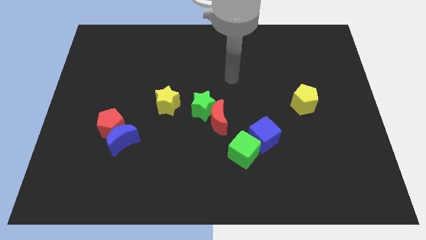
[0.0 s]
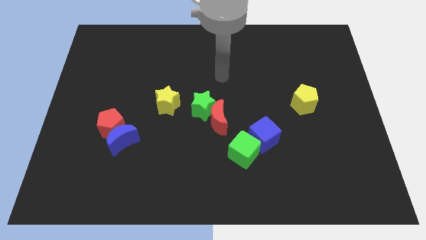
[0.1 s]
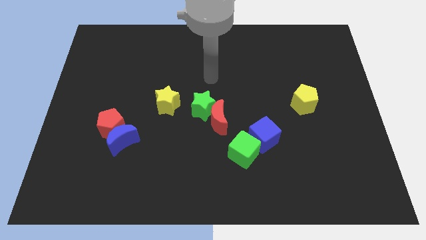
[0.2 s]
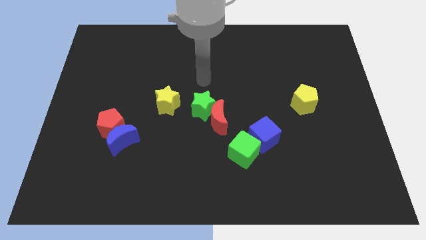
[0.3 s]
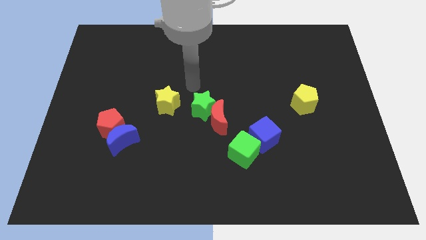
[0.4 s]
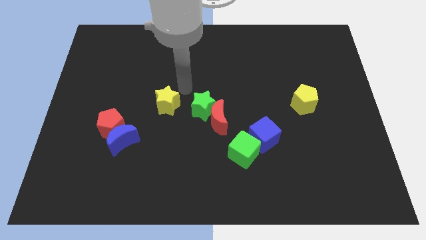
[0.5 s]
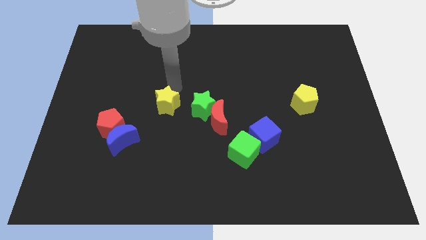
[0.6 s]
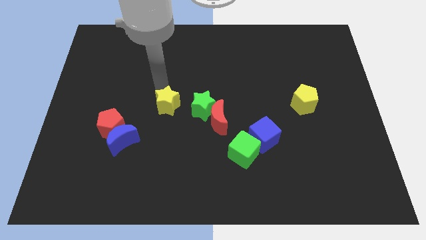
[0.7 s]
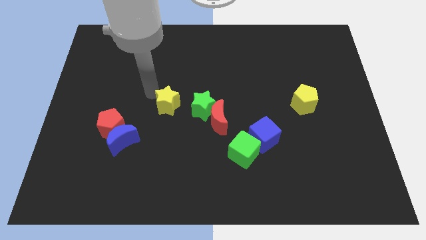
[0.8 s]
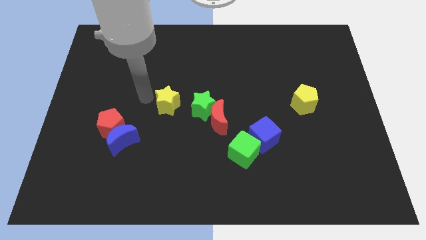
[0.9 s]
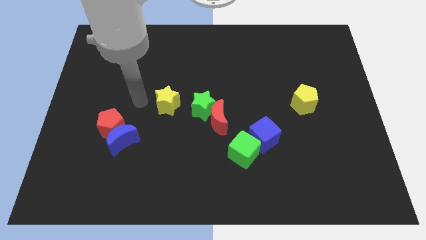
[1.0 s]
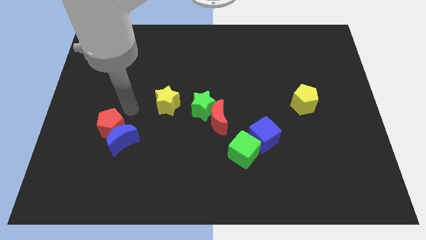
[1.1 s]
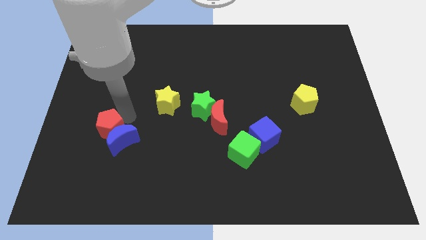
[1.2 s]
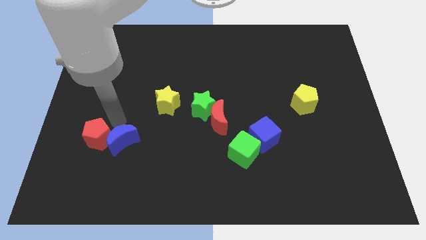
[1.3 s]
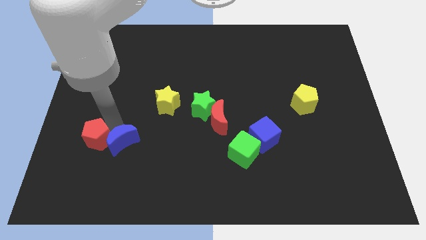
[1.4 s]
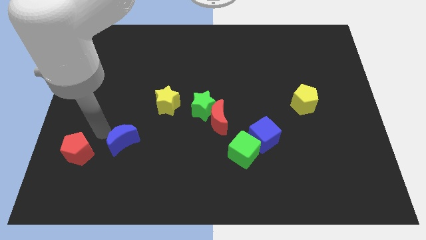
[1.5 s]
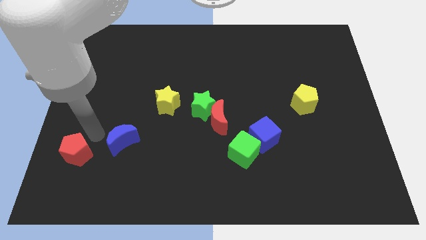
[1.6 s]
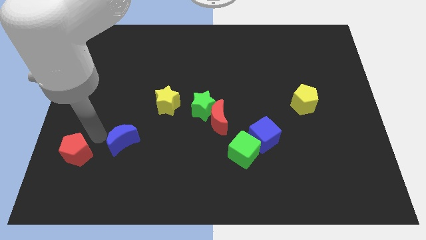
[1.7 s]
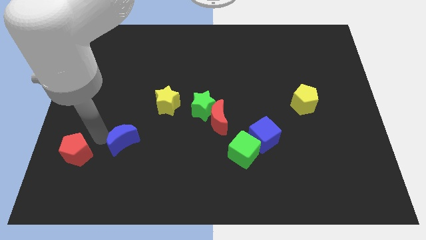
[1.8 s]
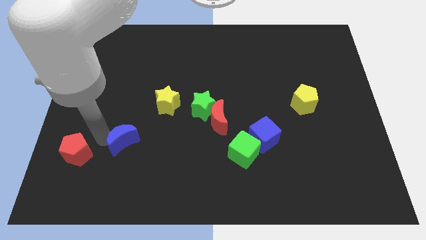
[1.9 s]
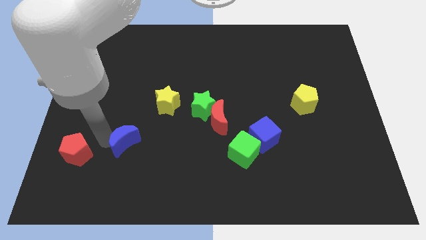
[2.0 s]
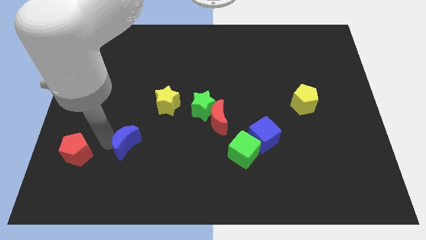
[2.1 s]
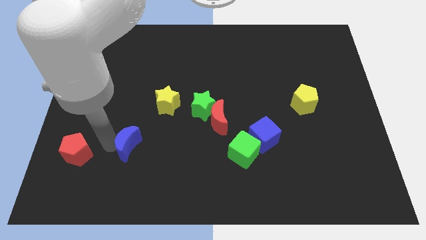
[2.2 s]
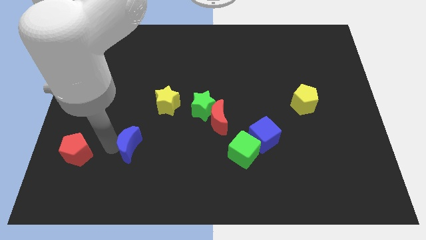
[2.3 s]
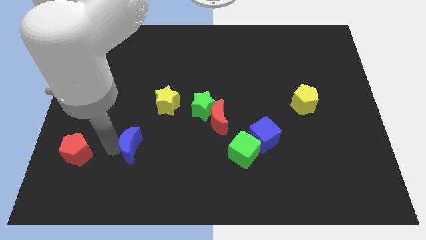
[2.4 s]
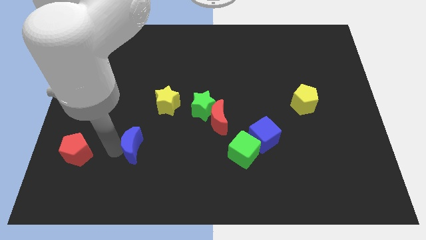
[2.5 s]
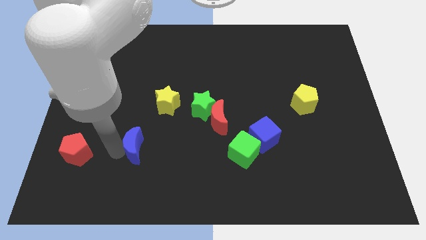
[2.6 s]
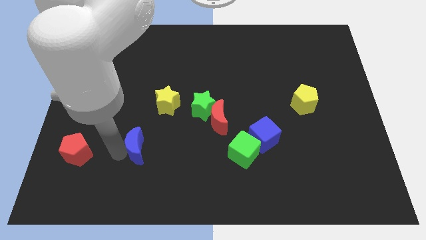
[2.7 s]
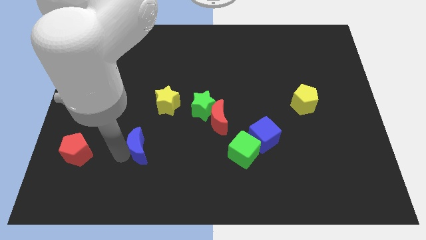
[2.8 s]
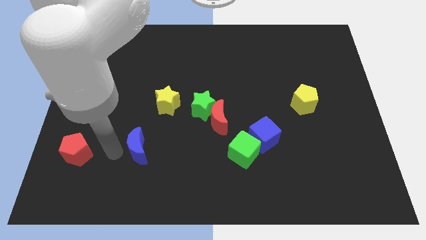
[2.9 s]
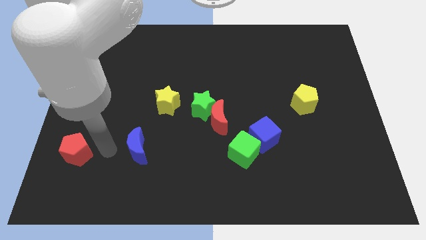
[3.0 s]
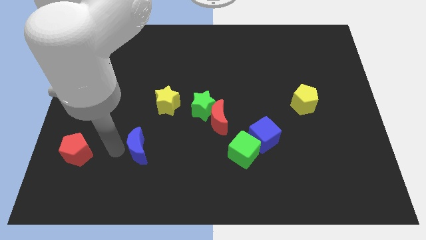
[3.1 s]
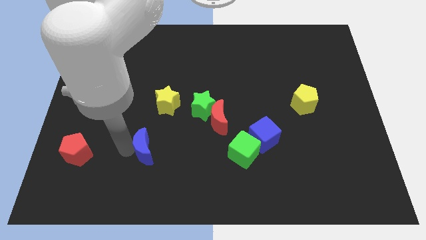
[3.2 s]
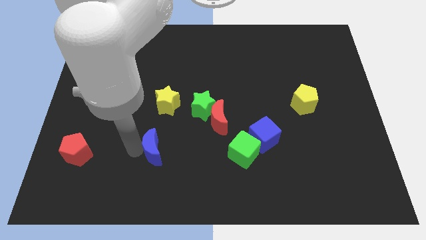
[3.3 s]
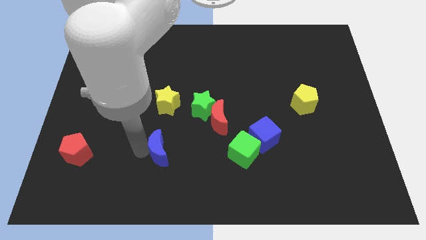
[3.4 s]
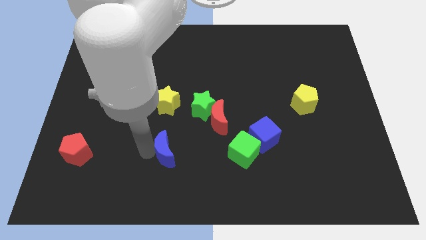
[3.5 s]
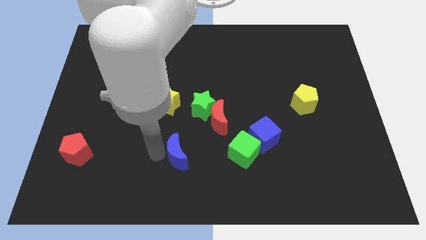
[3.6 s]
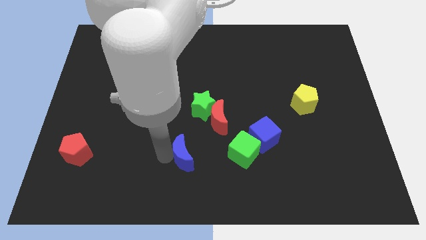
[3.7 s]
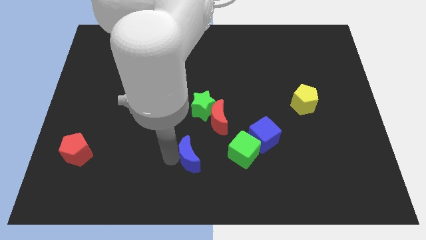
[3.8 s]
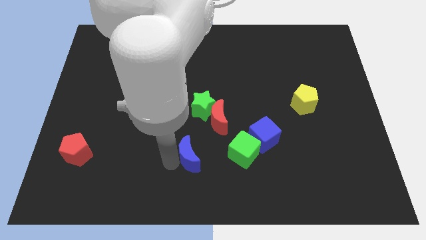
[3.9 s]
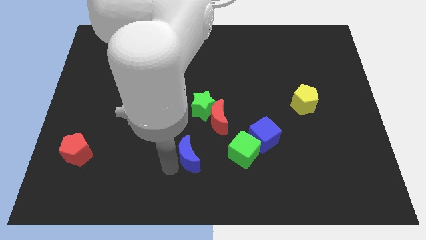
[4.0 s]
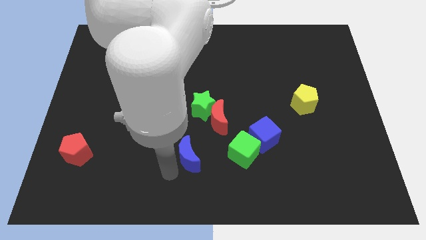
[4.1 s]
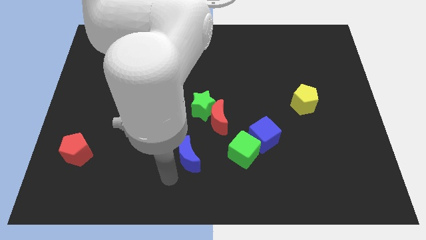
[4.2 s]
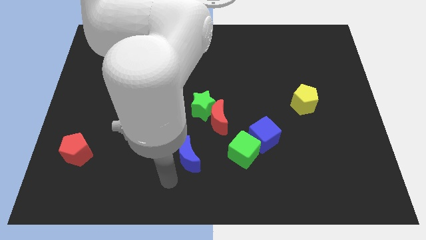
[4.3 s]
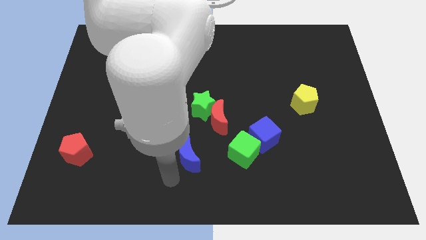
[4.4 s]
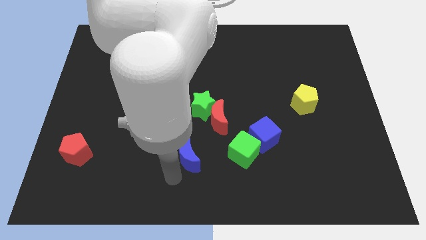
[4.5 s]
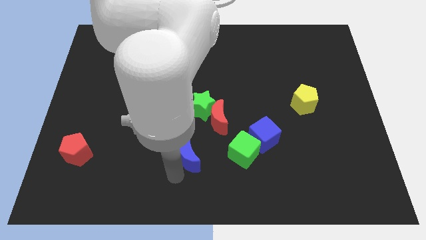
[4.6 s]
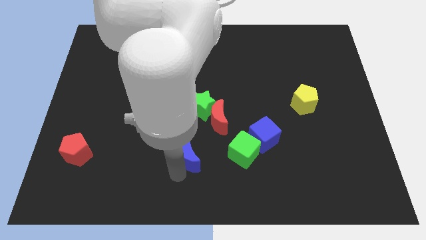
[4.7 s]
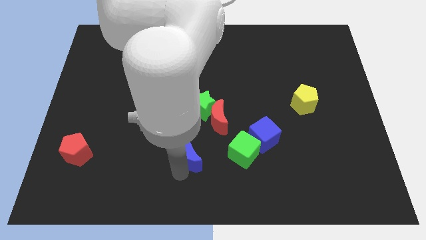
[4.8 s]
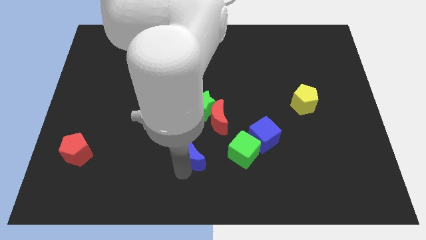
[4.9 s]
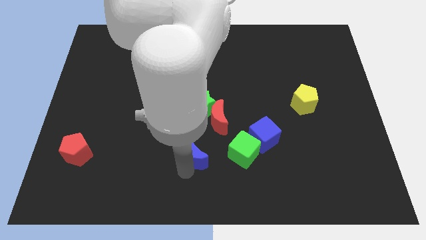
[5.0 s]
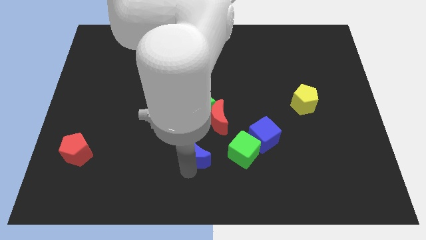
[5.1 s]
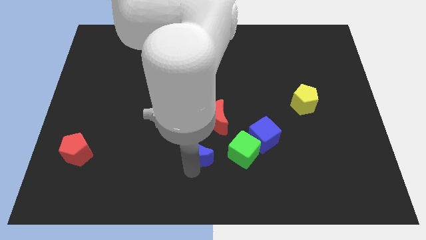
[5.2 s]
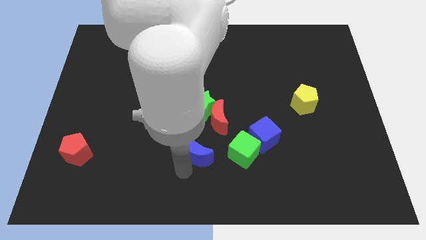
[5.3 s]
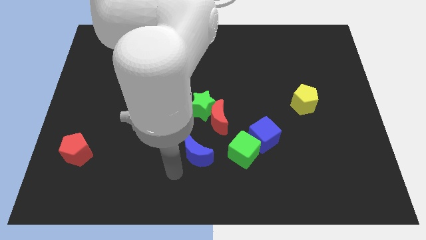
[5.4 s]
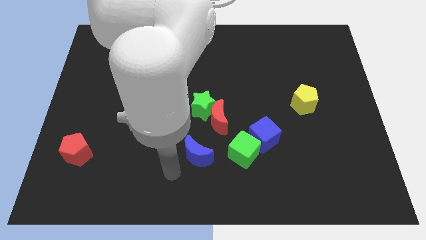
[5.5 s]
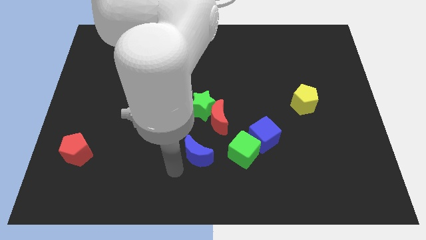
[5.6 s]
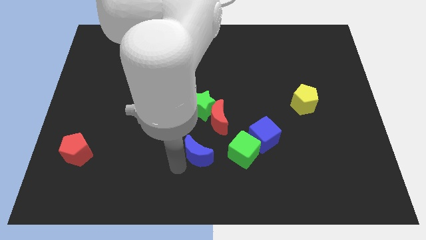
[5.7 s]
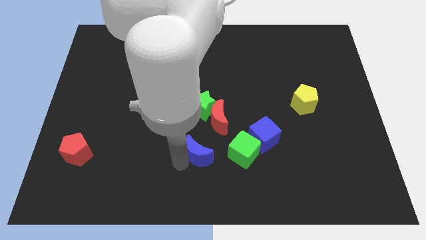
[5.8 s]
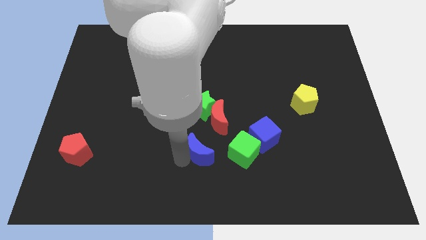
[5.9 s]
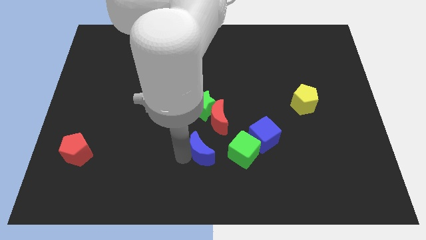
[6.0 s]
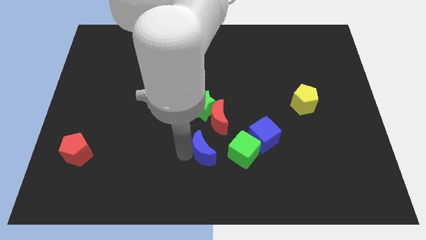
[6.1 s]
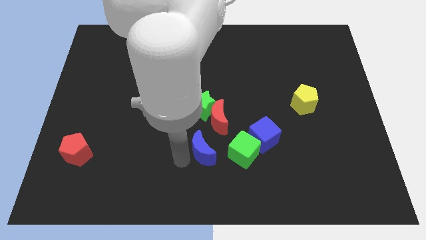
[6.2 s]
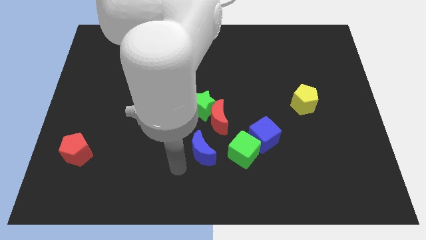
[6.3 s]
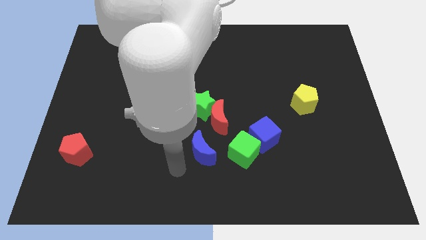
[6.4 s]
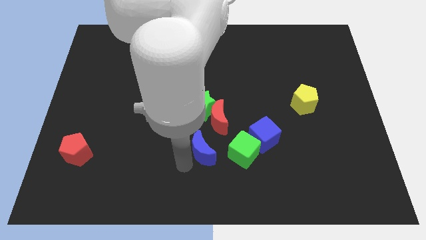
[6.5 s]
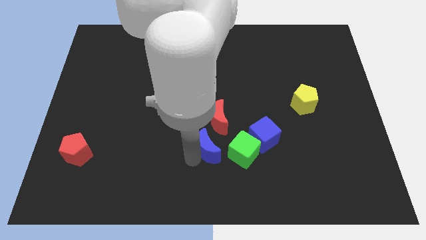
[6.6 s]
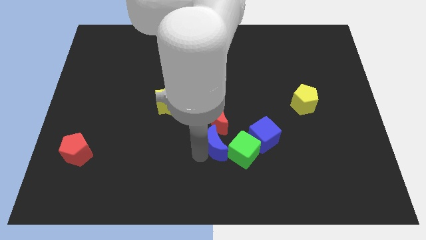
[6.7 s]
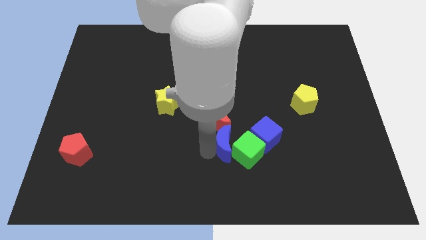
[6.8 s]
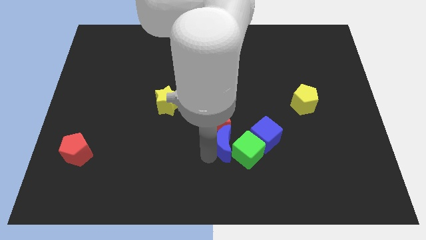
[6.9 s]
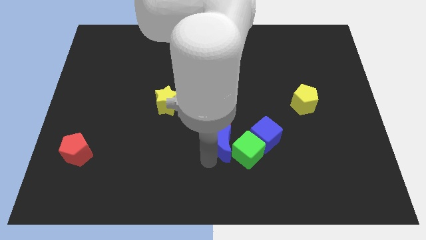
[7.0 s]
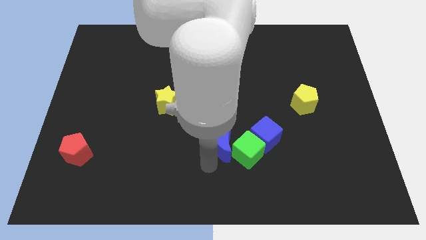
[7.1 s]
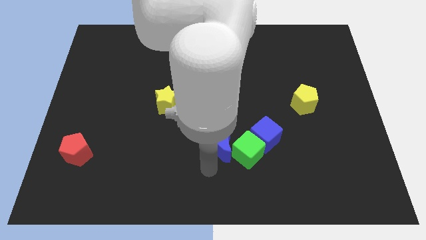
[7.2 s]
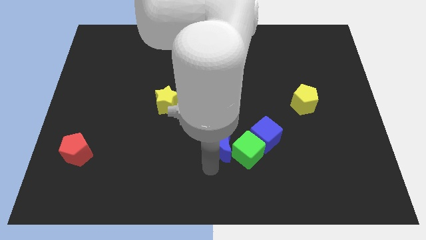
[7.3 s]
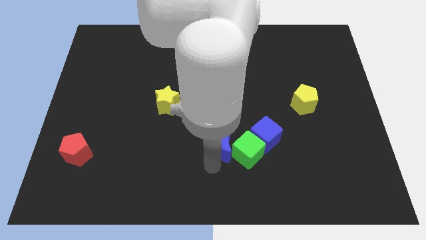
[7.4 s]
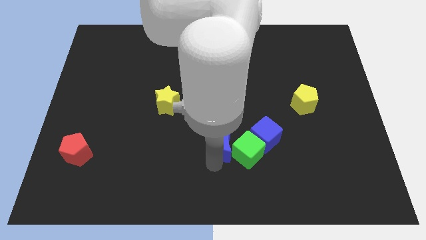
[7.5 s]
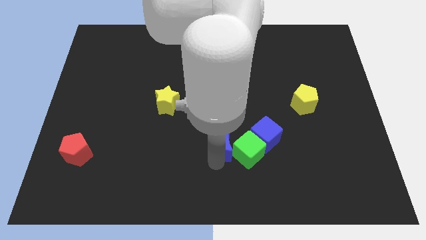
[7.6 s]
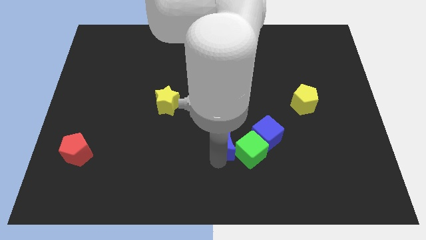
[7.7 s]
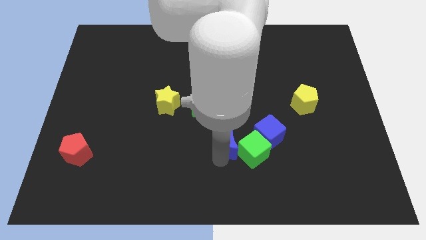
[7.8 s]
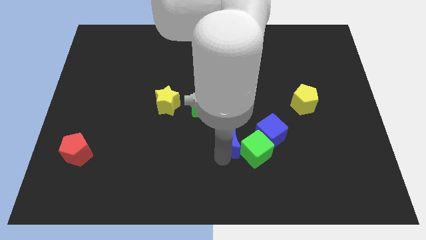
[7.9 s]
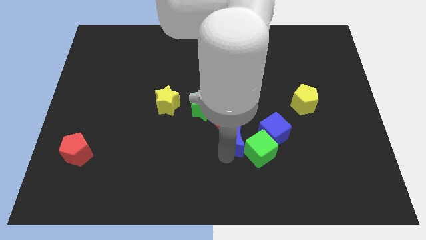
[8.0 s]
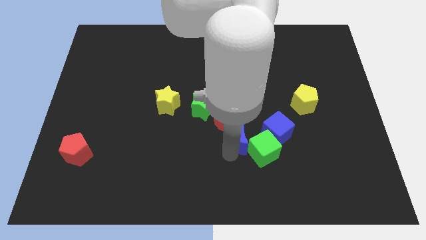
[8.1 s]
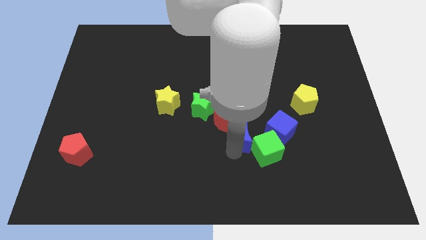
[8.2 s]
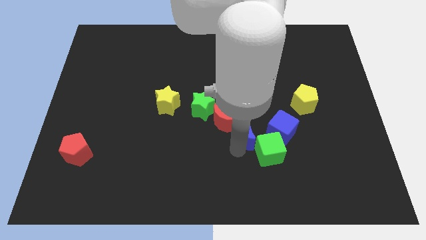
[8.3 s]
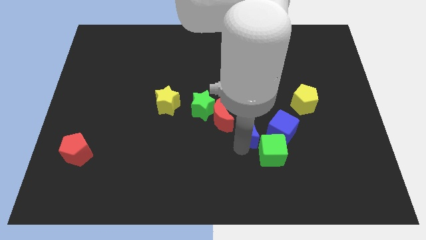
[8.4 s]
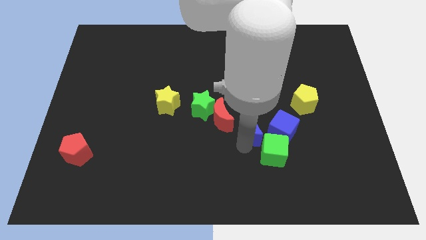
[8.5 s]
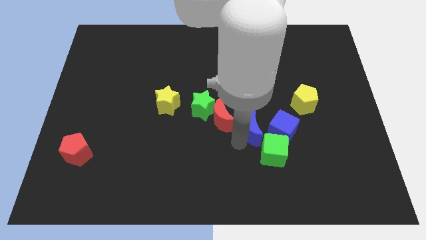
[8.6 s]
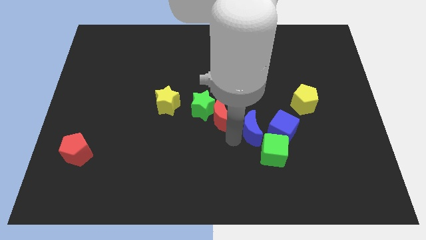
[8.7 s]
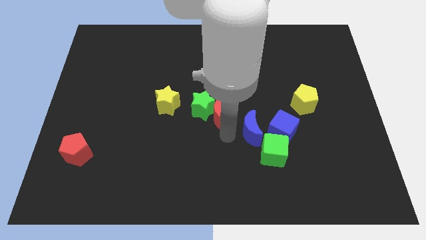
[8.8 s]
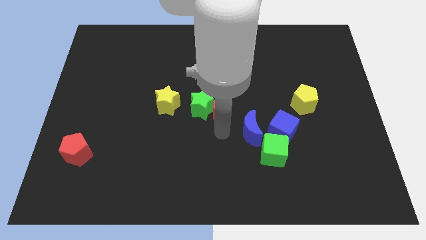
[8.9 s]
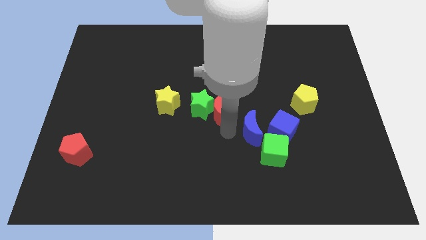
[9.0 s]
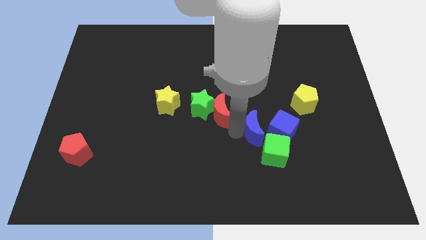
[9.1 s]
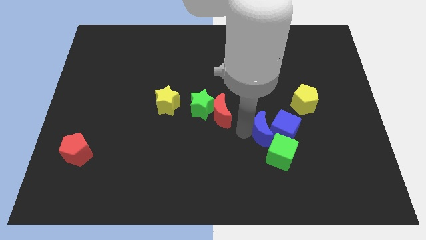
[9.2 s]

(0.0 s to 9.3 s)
put the blue moon next to the blue cube
